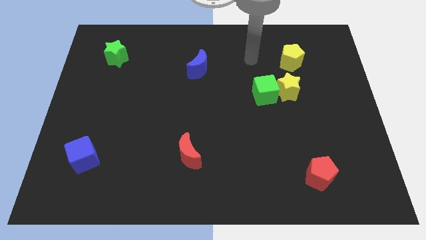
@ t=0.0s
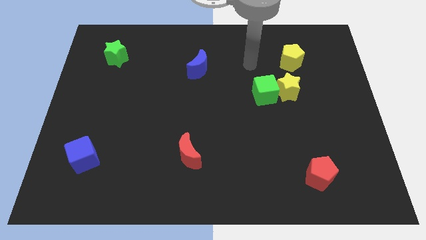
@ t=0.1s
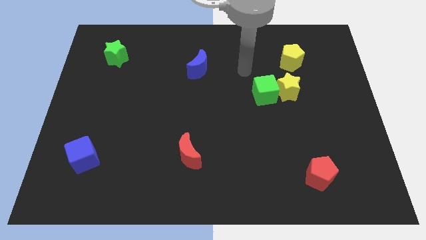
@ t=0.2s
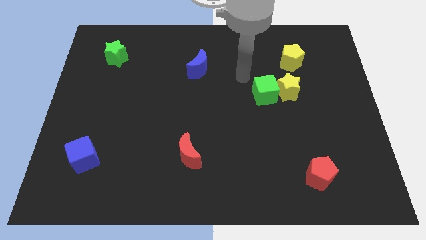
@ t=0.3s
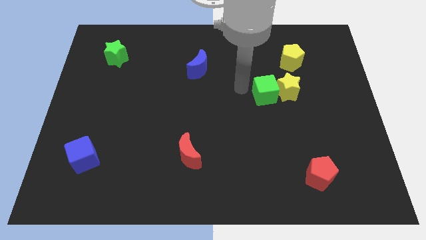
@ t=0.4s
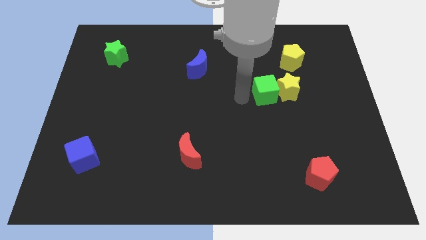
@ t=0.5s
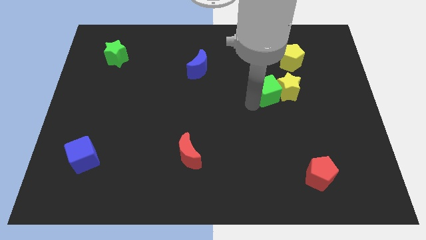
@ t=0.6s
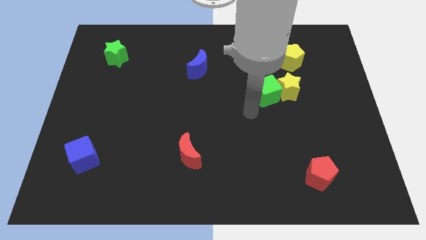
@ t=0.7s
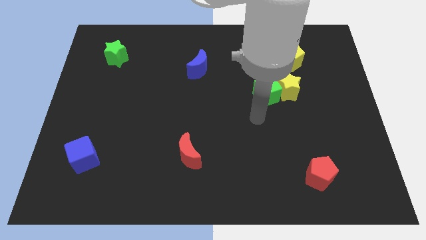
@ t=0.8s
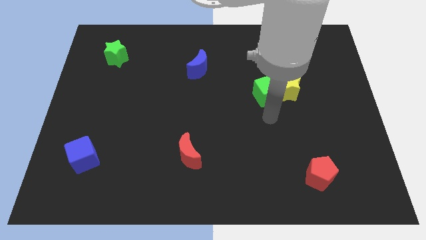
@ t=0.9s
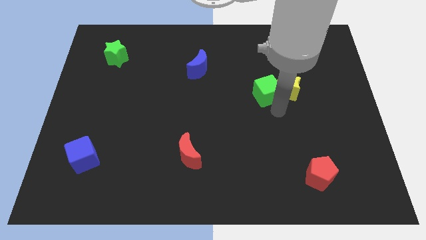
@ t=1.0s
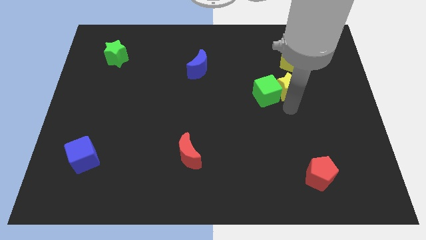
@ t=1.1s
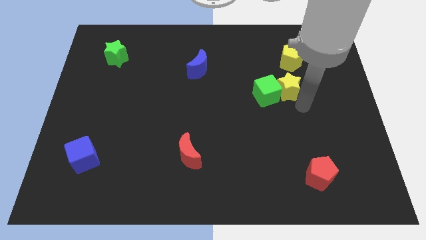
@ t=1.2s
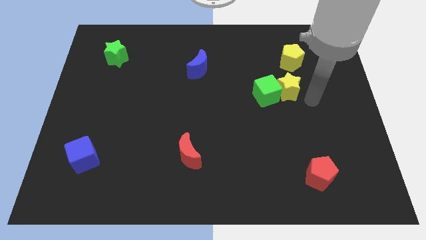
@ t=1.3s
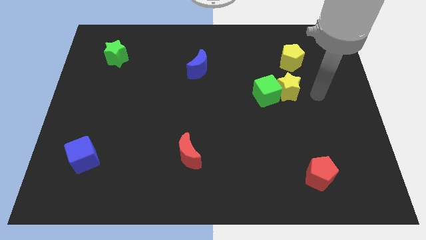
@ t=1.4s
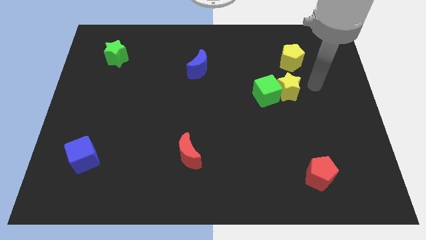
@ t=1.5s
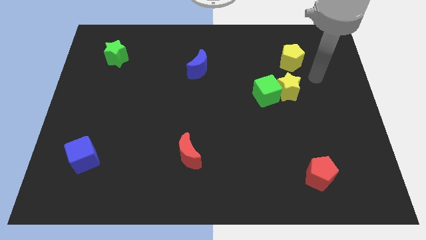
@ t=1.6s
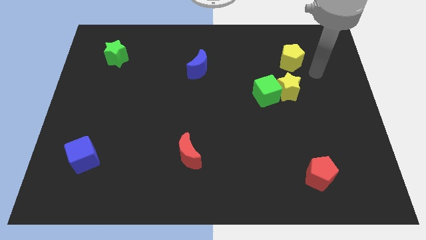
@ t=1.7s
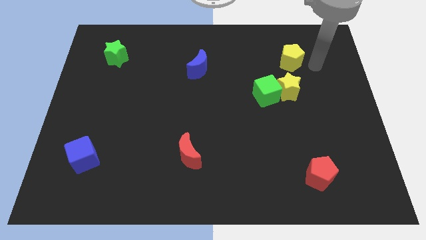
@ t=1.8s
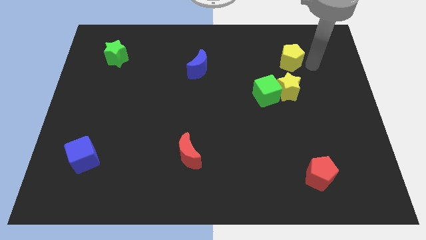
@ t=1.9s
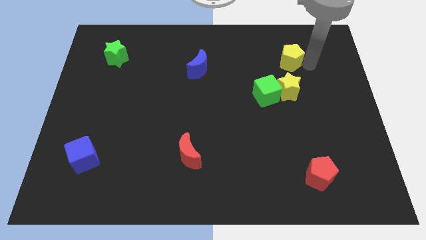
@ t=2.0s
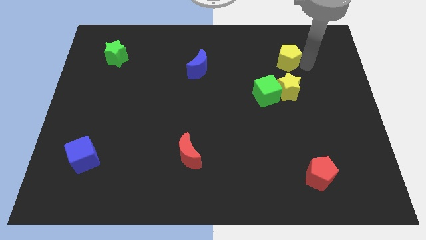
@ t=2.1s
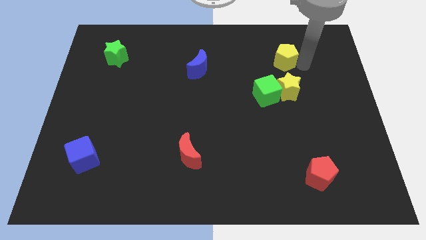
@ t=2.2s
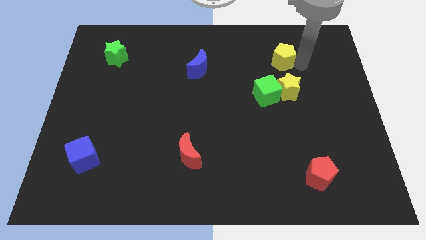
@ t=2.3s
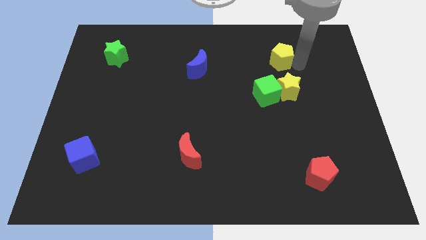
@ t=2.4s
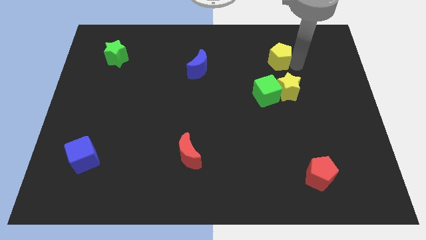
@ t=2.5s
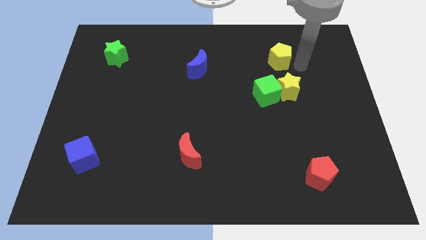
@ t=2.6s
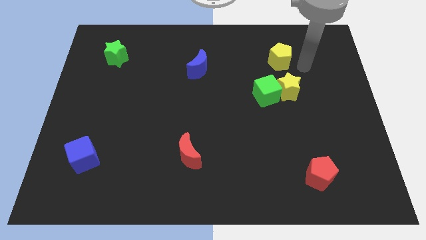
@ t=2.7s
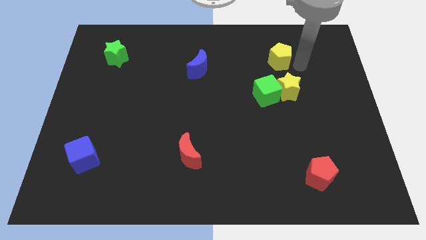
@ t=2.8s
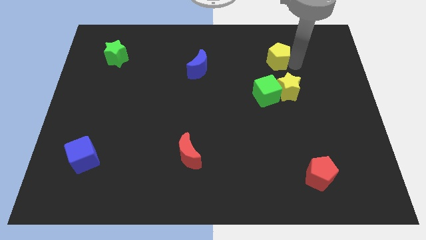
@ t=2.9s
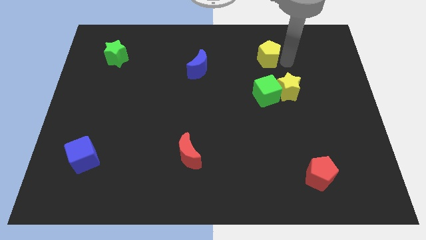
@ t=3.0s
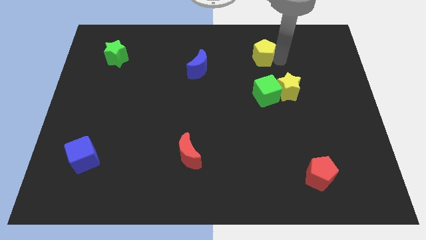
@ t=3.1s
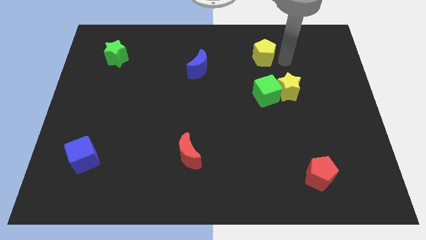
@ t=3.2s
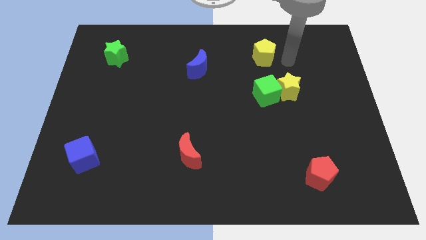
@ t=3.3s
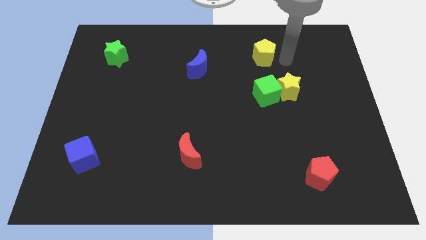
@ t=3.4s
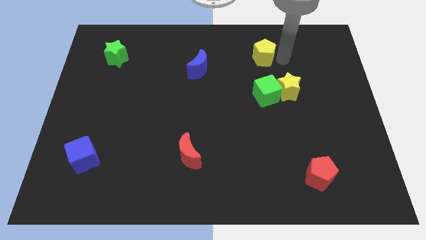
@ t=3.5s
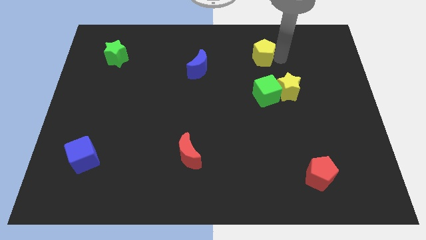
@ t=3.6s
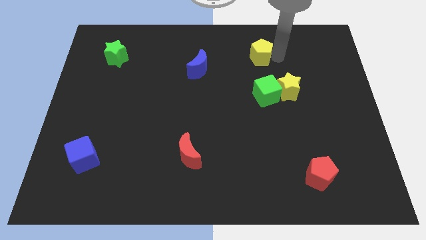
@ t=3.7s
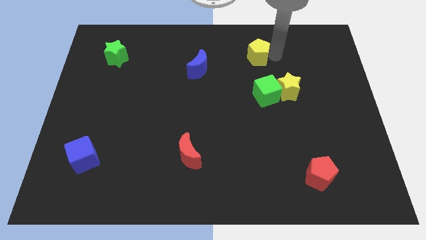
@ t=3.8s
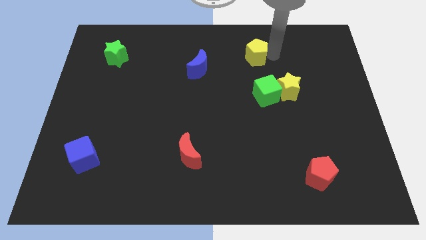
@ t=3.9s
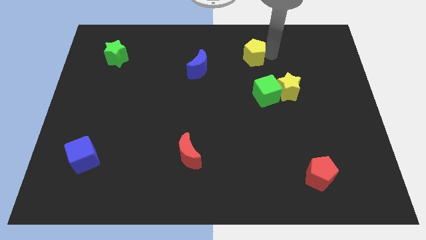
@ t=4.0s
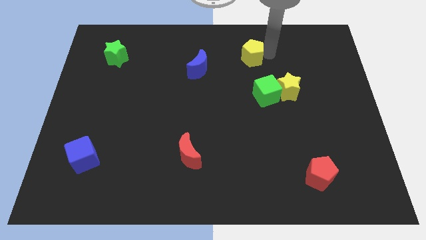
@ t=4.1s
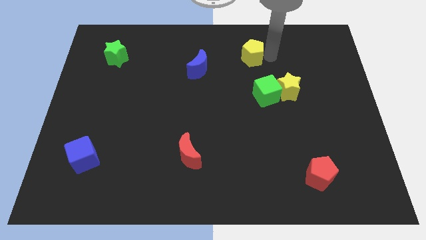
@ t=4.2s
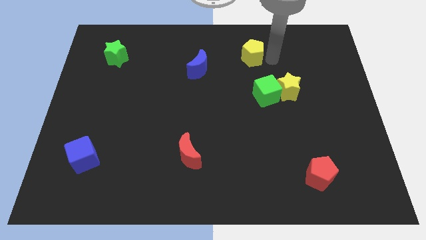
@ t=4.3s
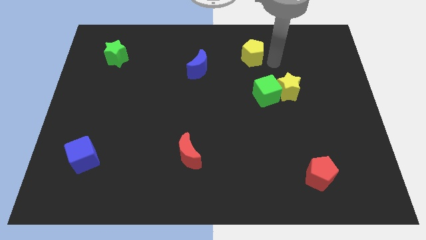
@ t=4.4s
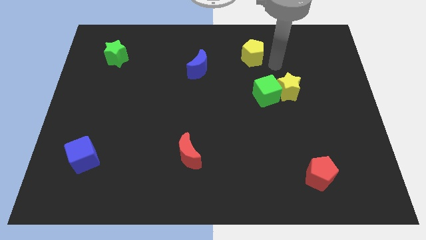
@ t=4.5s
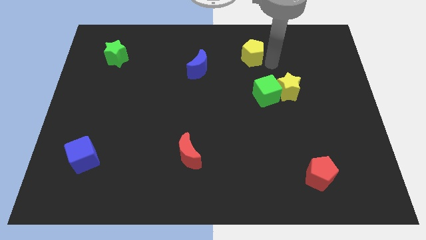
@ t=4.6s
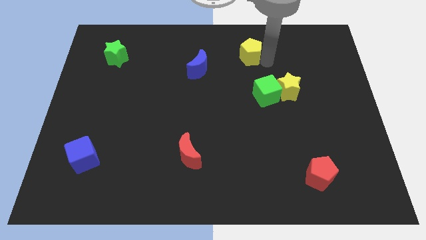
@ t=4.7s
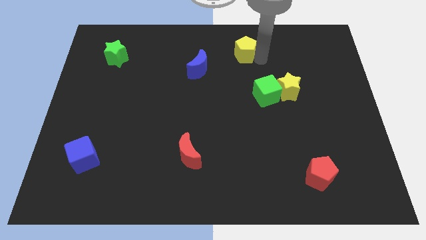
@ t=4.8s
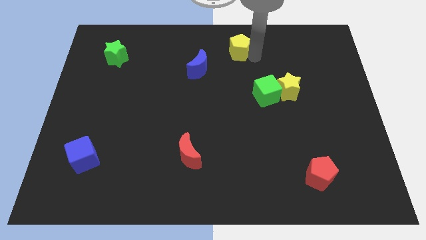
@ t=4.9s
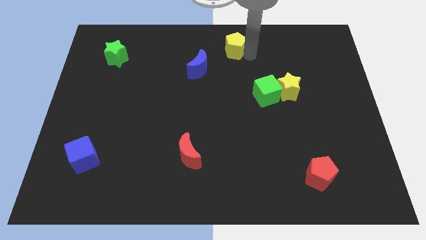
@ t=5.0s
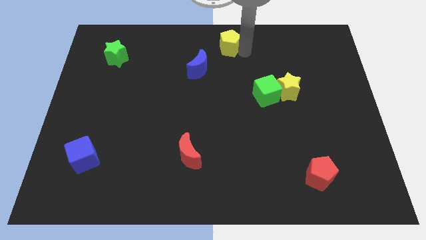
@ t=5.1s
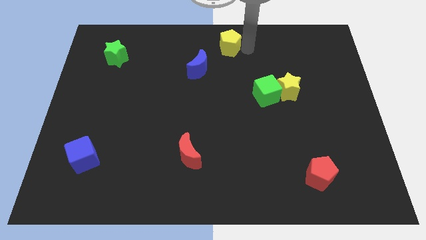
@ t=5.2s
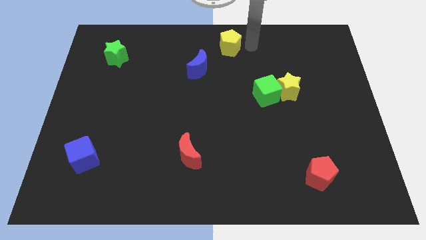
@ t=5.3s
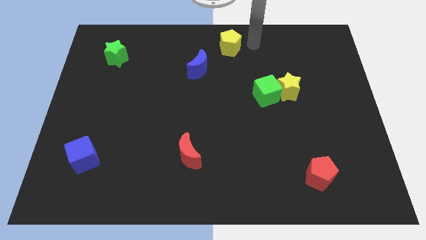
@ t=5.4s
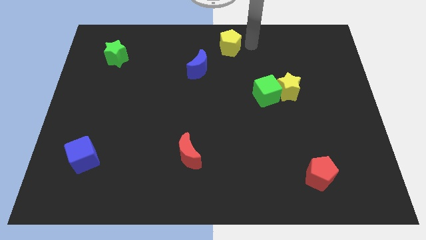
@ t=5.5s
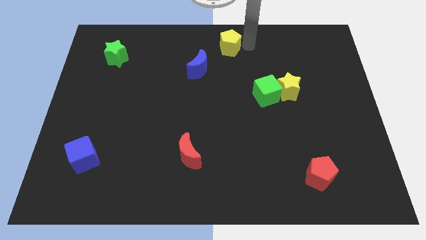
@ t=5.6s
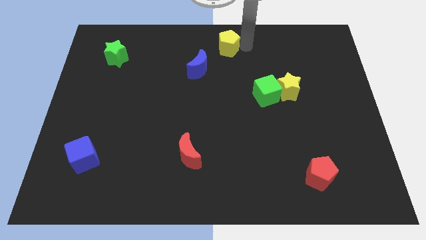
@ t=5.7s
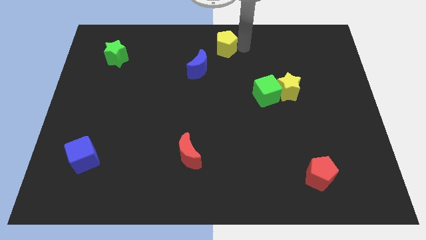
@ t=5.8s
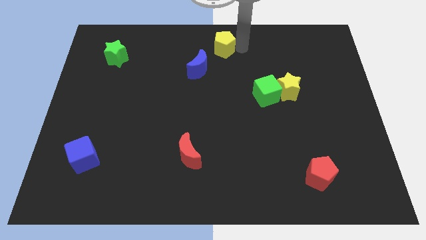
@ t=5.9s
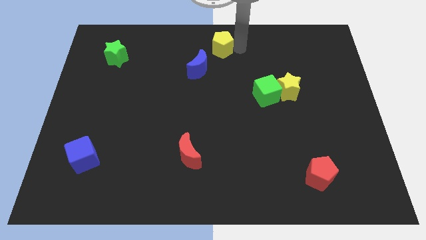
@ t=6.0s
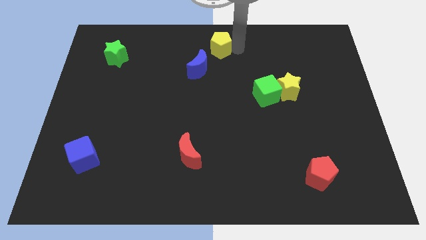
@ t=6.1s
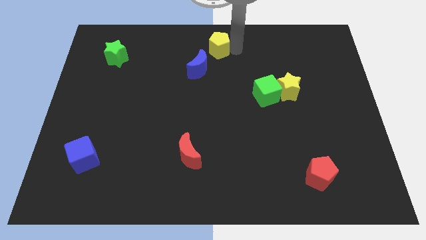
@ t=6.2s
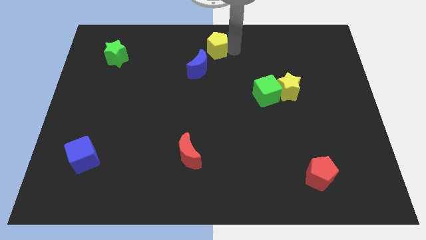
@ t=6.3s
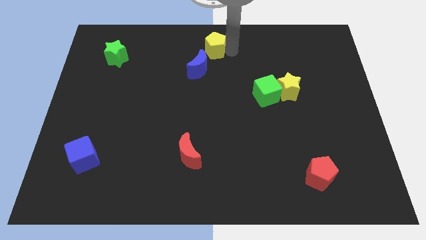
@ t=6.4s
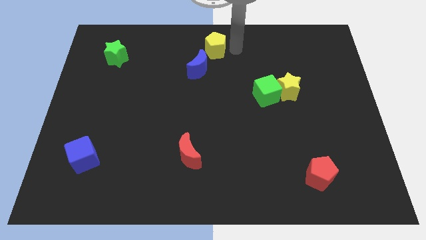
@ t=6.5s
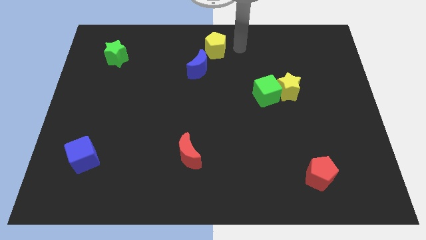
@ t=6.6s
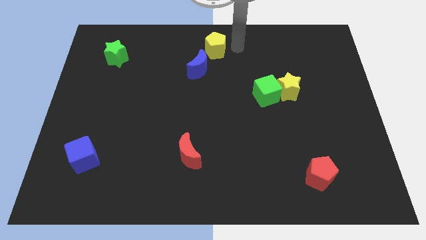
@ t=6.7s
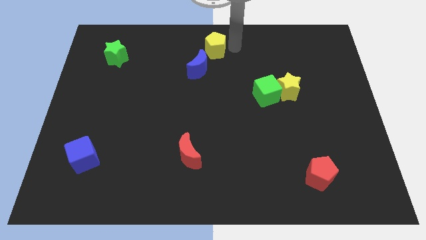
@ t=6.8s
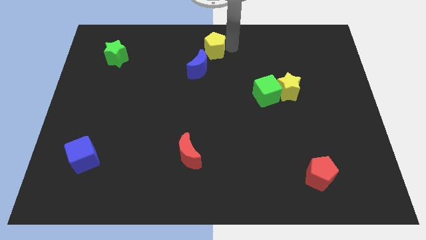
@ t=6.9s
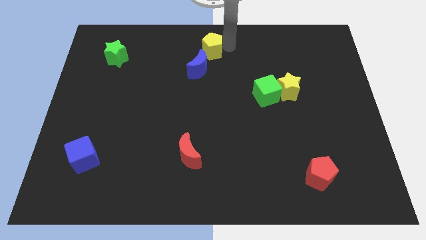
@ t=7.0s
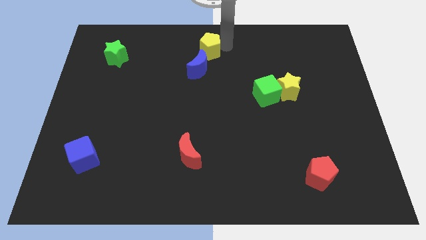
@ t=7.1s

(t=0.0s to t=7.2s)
slide the yellow pentagon left

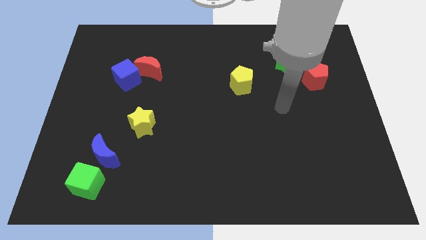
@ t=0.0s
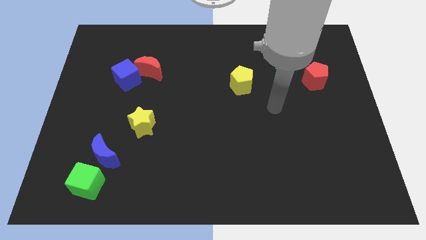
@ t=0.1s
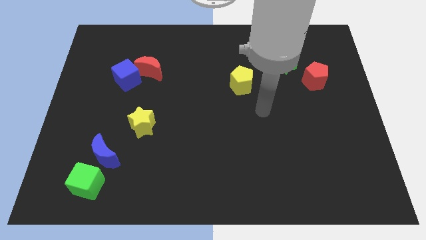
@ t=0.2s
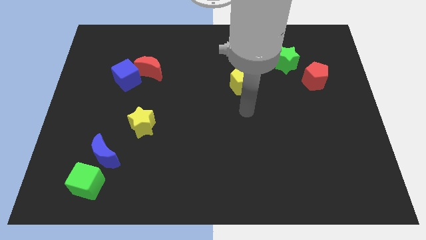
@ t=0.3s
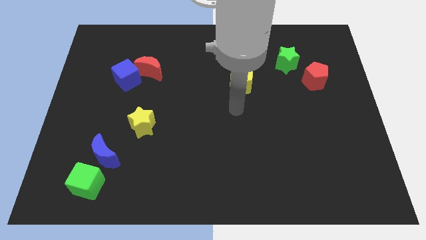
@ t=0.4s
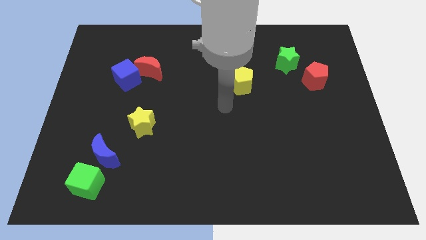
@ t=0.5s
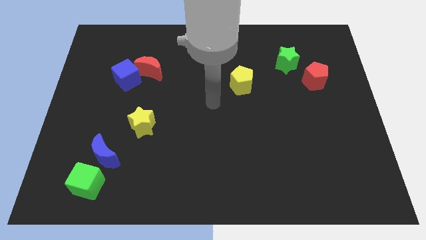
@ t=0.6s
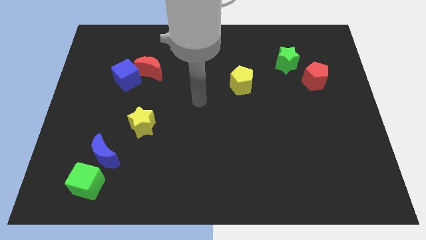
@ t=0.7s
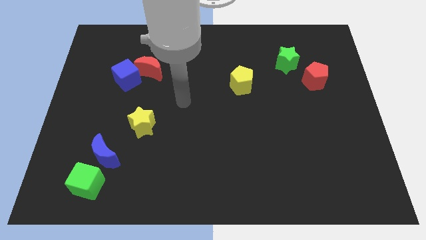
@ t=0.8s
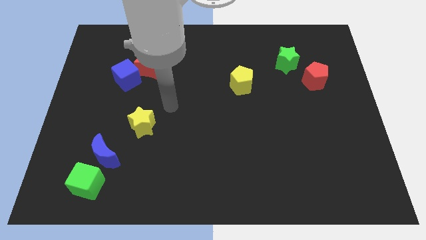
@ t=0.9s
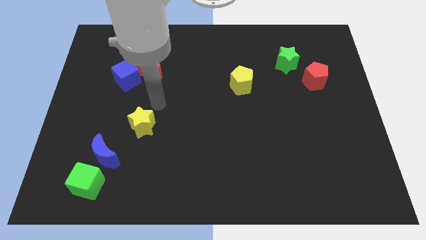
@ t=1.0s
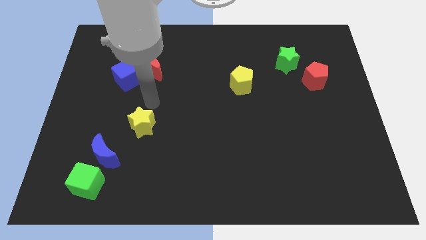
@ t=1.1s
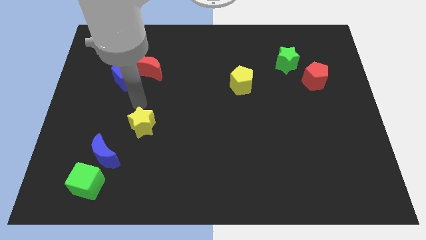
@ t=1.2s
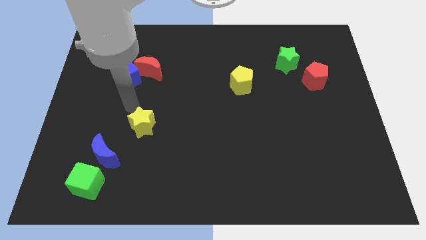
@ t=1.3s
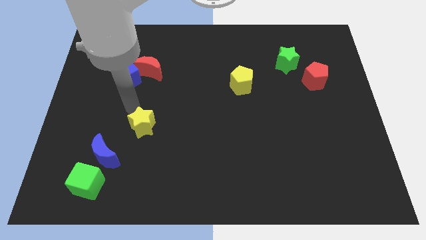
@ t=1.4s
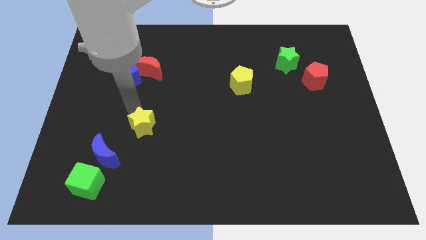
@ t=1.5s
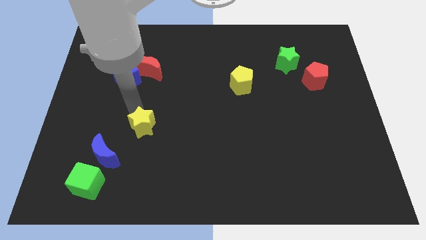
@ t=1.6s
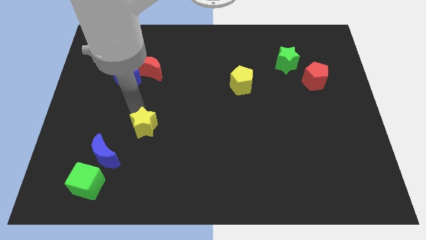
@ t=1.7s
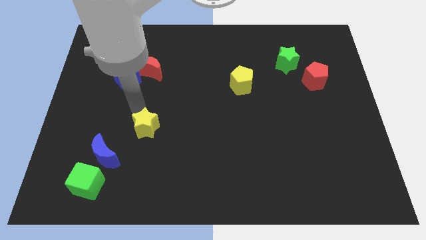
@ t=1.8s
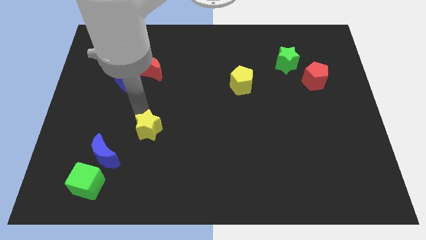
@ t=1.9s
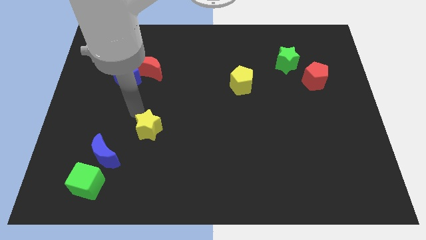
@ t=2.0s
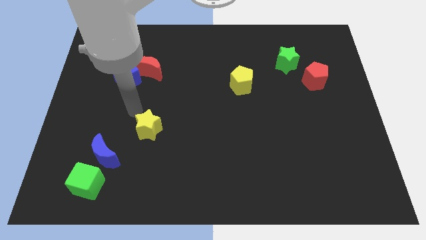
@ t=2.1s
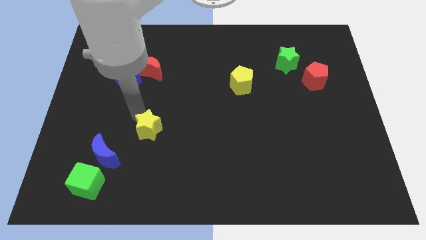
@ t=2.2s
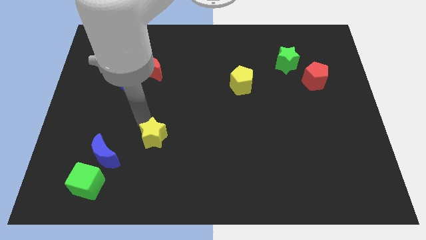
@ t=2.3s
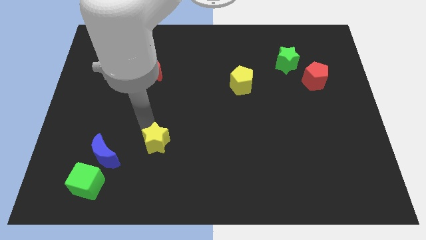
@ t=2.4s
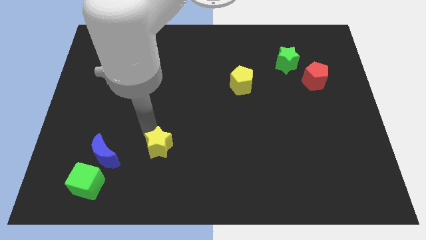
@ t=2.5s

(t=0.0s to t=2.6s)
push the yellow star a little down and to the right
